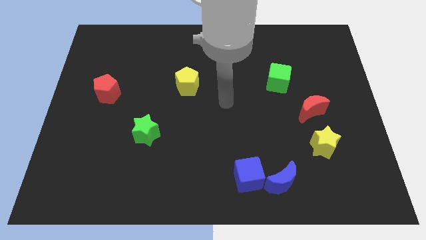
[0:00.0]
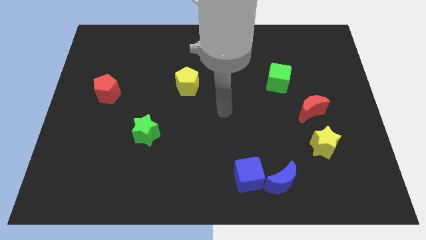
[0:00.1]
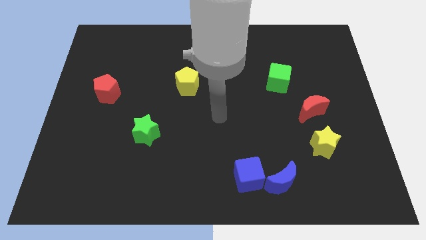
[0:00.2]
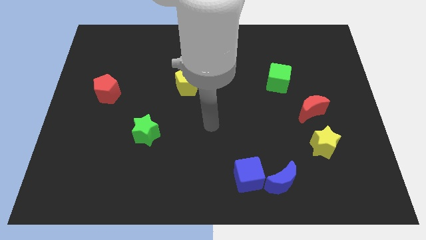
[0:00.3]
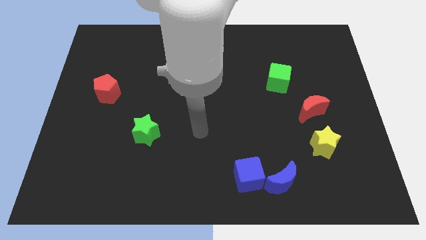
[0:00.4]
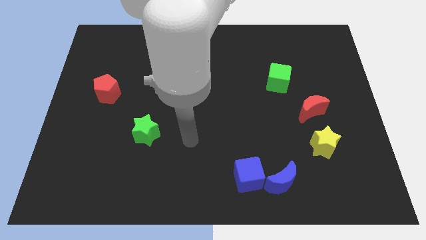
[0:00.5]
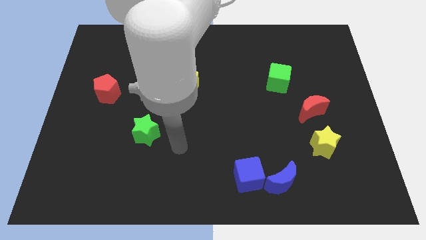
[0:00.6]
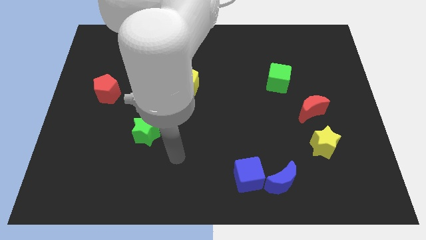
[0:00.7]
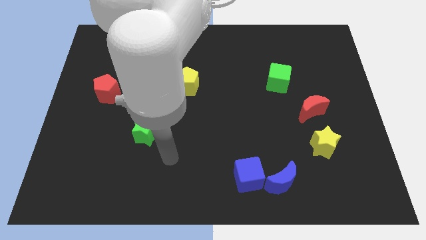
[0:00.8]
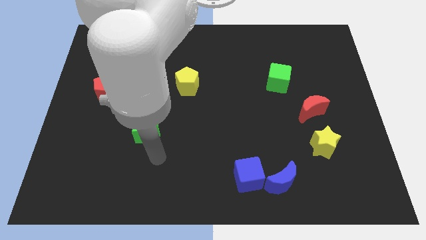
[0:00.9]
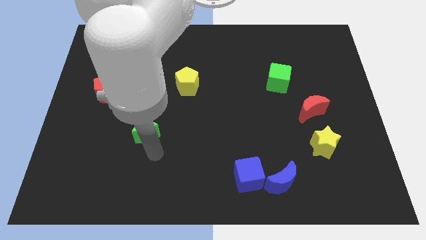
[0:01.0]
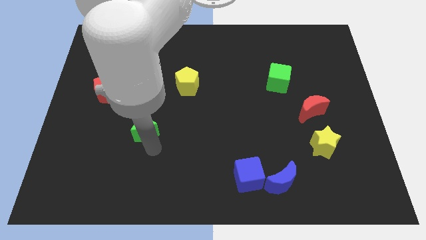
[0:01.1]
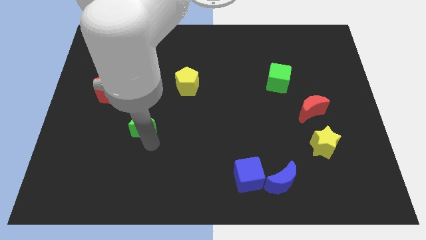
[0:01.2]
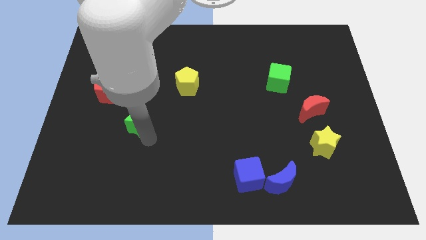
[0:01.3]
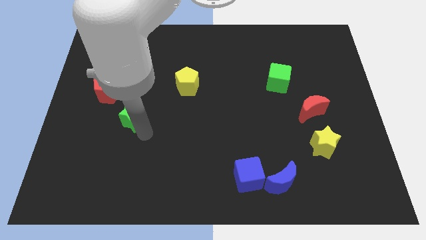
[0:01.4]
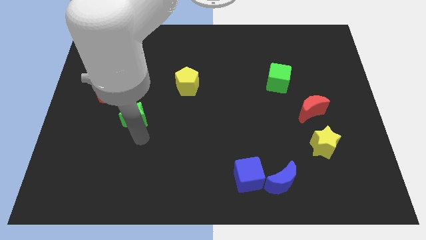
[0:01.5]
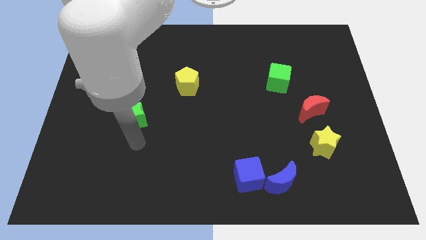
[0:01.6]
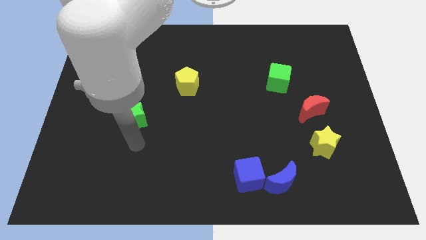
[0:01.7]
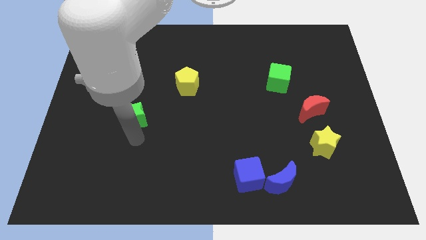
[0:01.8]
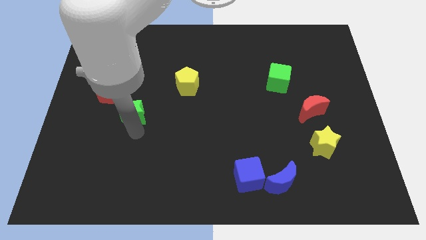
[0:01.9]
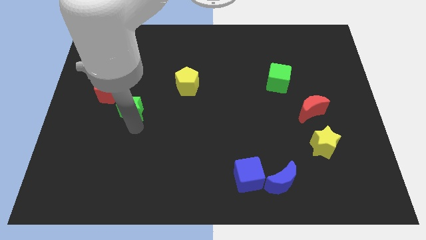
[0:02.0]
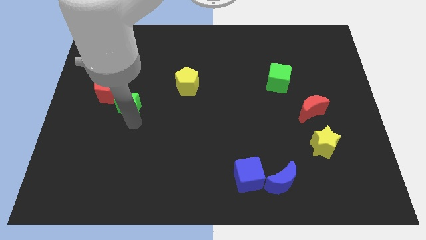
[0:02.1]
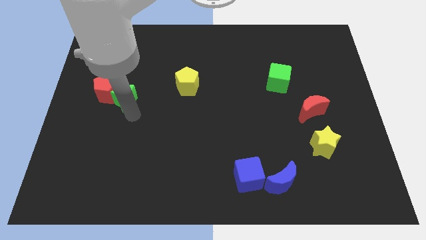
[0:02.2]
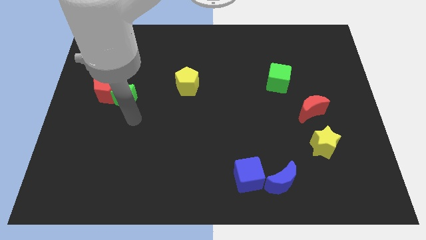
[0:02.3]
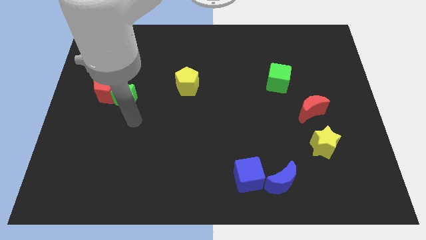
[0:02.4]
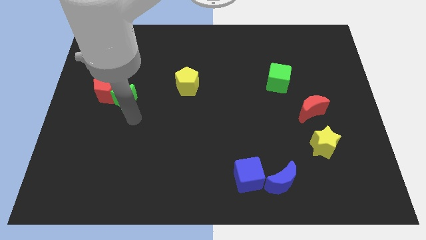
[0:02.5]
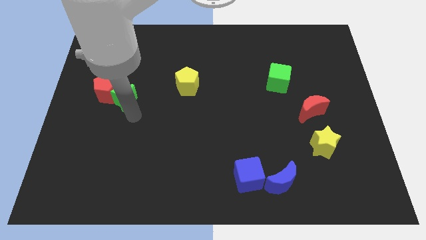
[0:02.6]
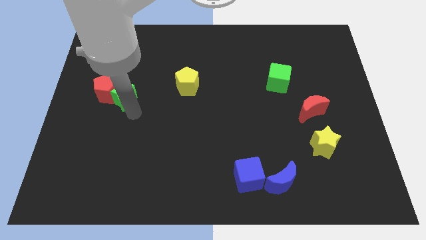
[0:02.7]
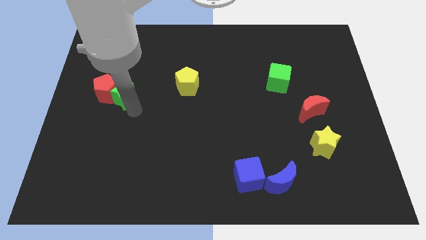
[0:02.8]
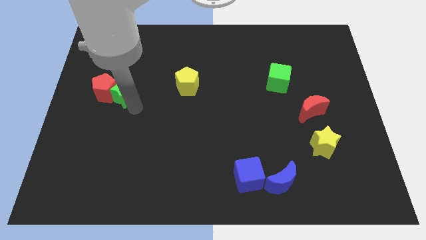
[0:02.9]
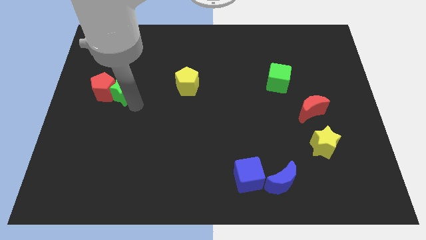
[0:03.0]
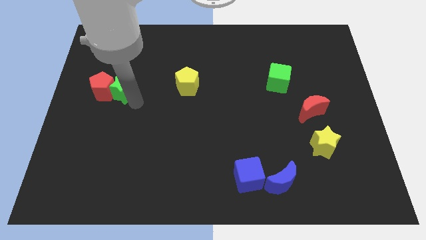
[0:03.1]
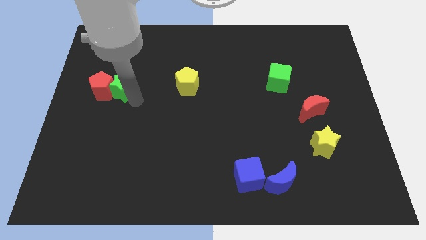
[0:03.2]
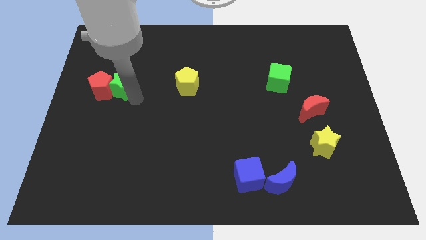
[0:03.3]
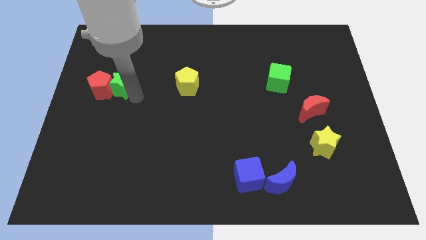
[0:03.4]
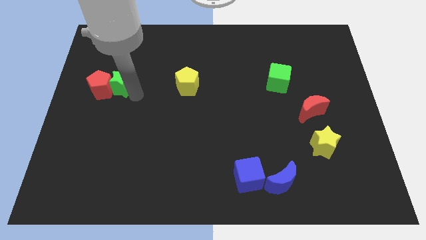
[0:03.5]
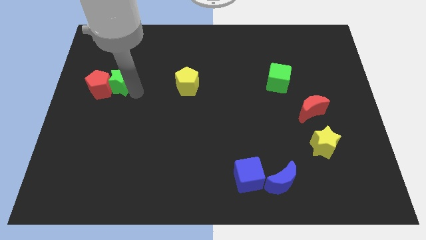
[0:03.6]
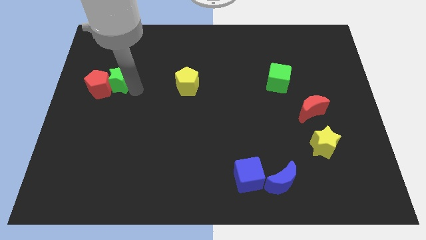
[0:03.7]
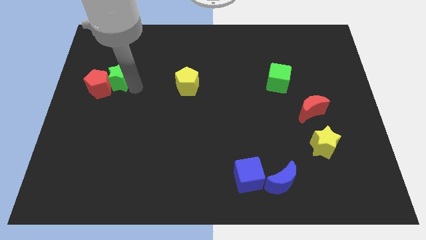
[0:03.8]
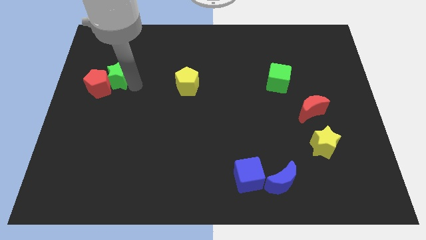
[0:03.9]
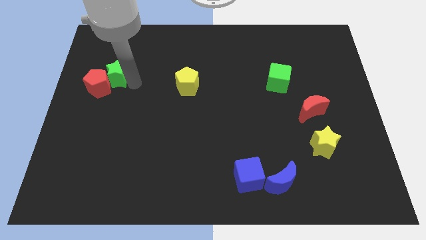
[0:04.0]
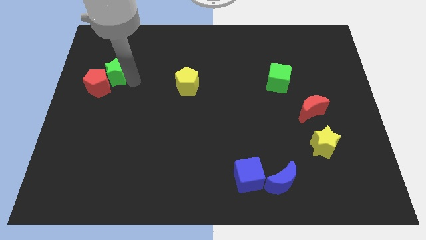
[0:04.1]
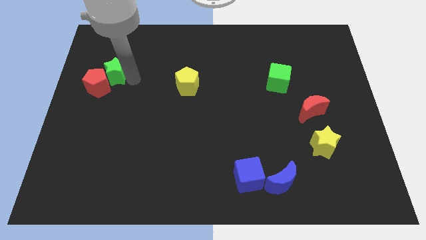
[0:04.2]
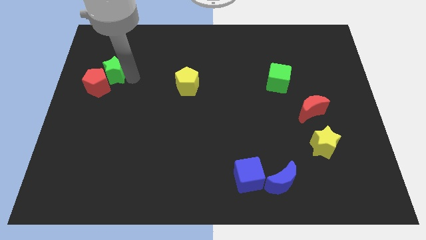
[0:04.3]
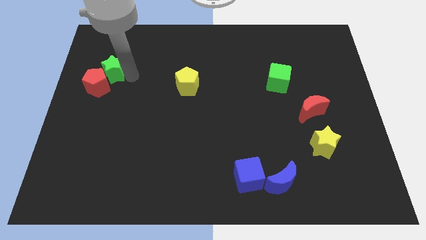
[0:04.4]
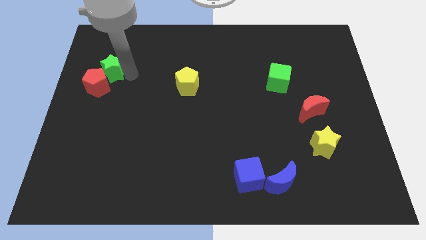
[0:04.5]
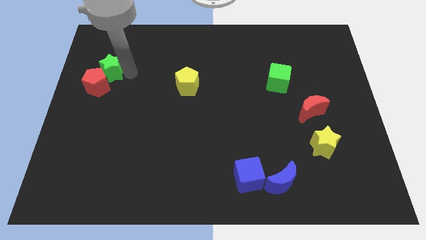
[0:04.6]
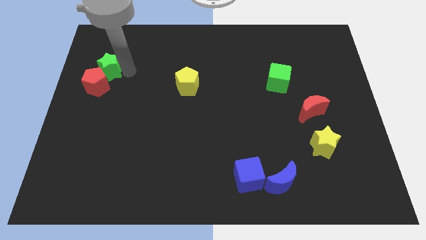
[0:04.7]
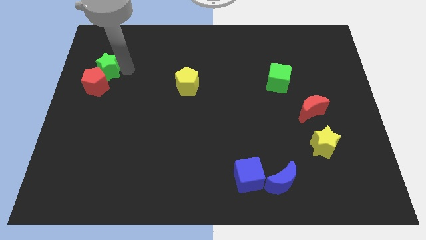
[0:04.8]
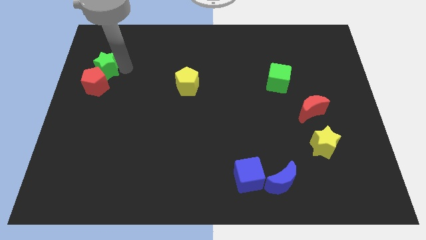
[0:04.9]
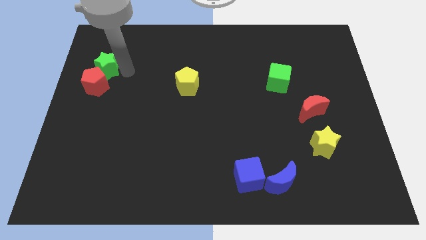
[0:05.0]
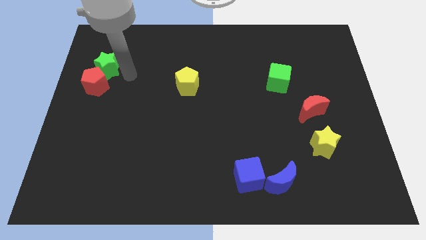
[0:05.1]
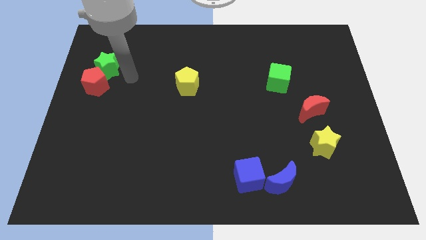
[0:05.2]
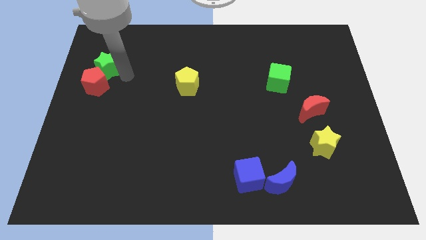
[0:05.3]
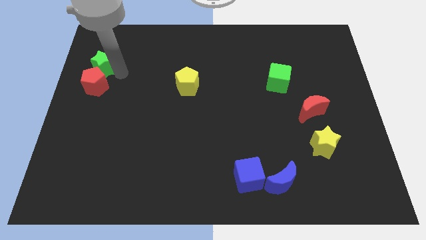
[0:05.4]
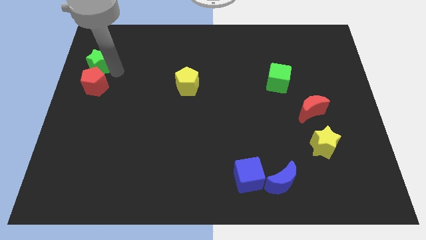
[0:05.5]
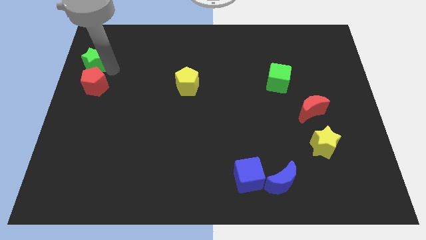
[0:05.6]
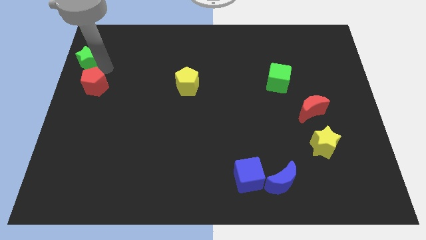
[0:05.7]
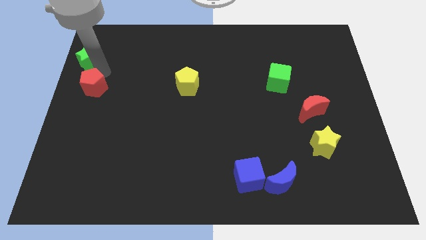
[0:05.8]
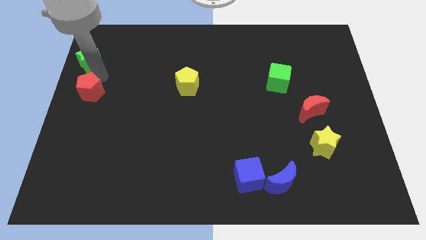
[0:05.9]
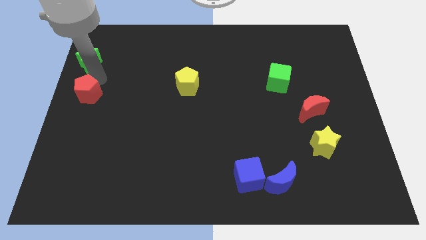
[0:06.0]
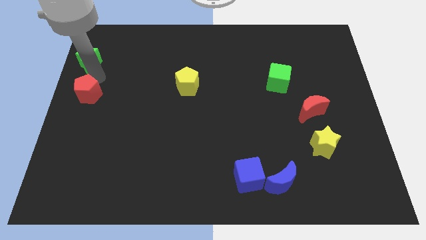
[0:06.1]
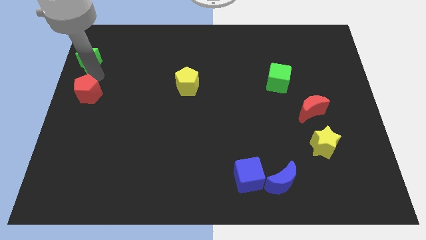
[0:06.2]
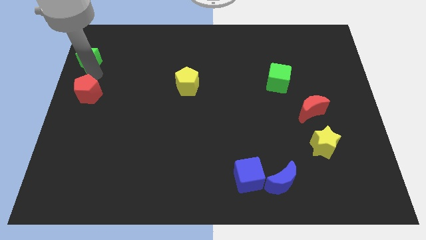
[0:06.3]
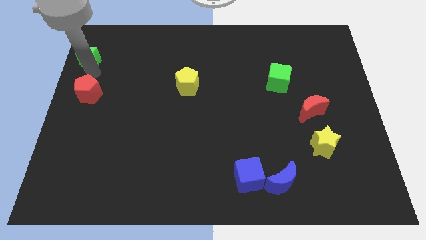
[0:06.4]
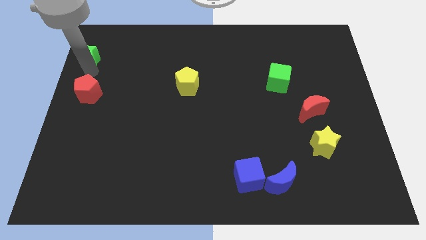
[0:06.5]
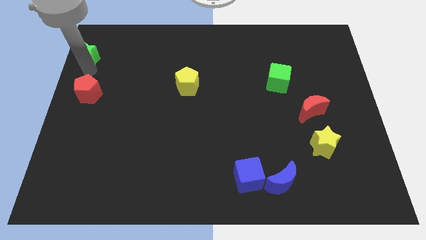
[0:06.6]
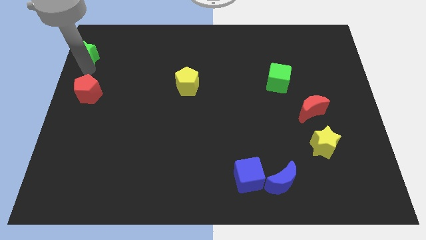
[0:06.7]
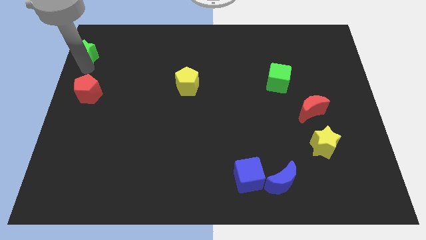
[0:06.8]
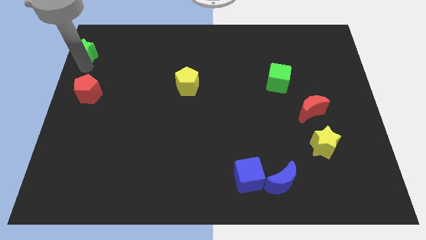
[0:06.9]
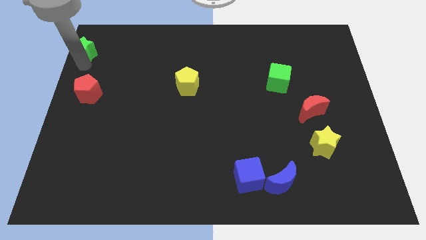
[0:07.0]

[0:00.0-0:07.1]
put the green star to the upper left corner
